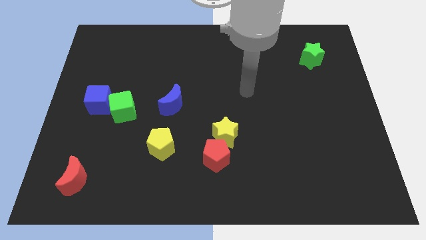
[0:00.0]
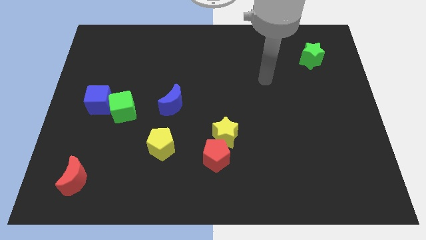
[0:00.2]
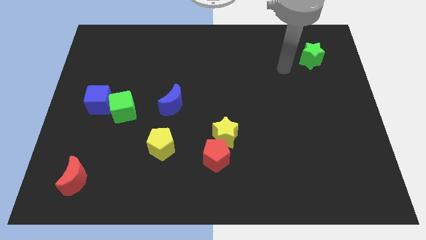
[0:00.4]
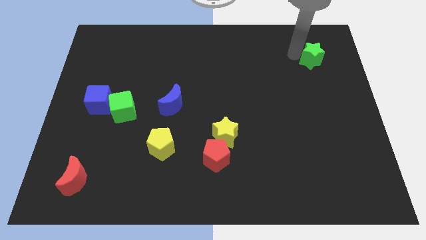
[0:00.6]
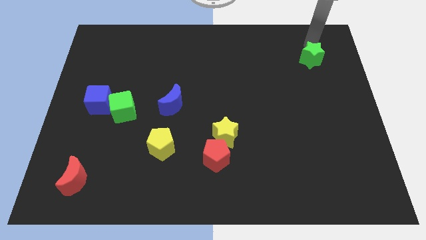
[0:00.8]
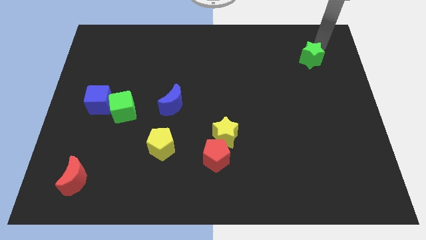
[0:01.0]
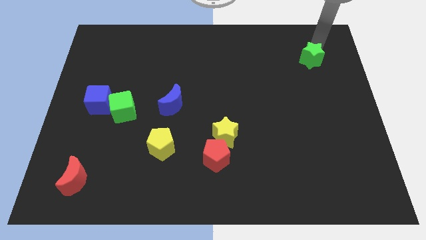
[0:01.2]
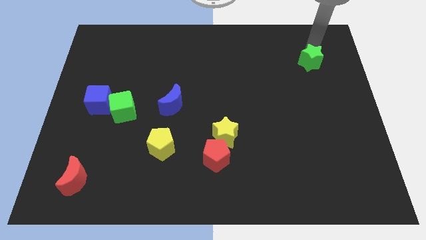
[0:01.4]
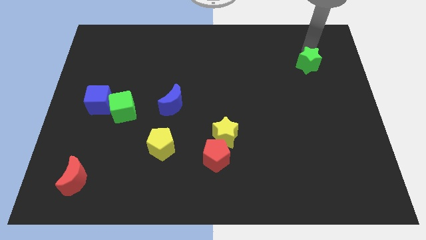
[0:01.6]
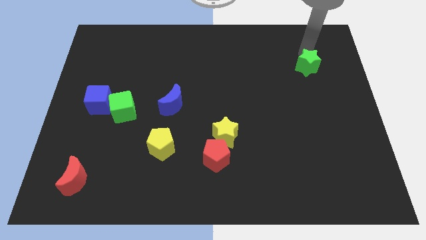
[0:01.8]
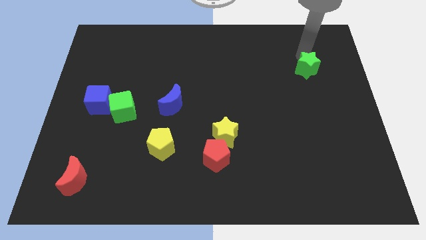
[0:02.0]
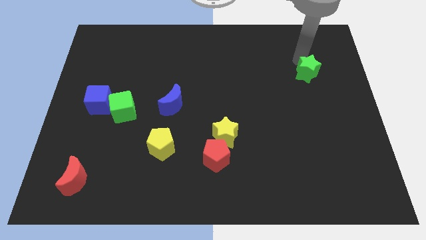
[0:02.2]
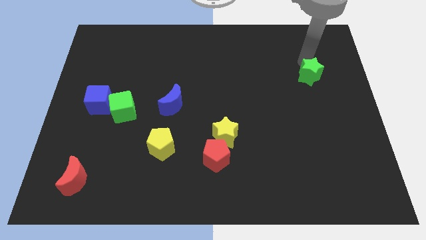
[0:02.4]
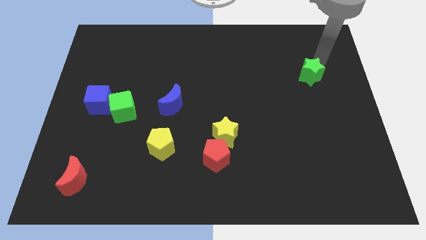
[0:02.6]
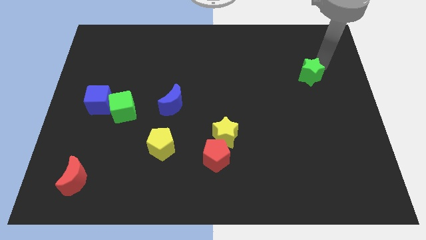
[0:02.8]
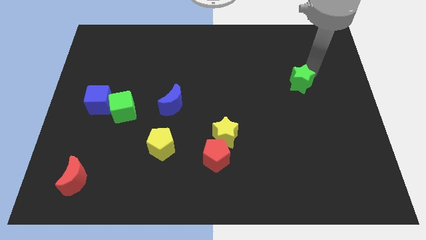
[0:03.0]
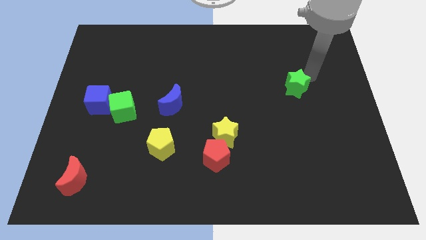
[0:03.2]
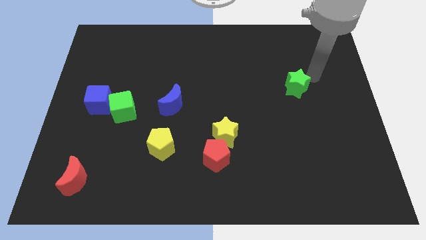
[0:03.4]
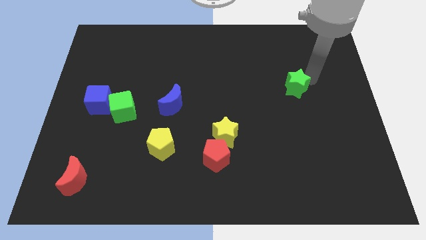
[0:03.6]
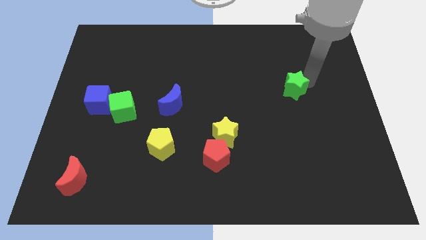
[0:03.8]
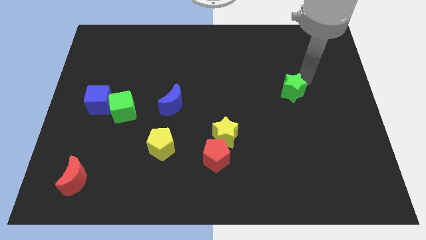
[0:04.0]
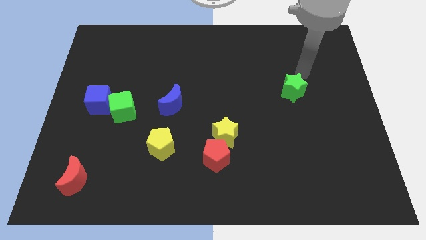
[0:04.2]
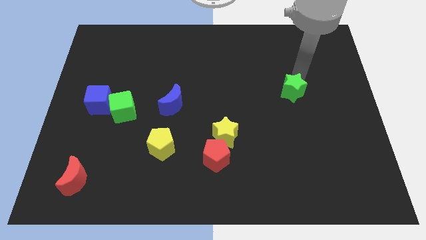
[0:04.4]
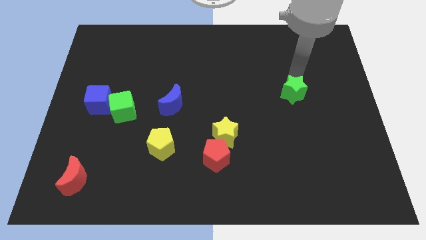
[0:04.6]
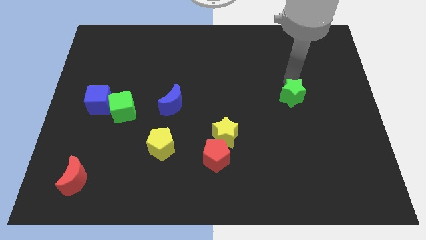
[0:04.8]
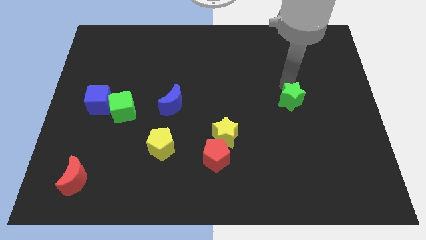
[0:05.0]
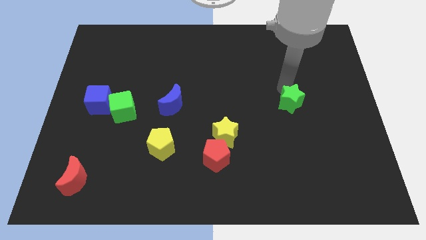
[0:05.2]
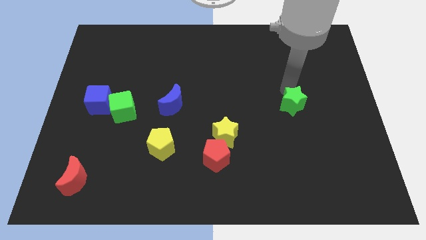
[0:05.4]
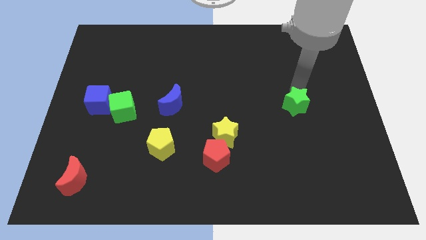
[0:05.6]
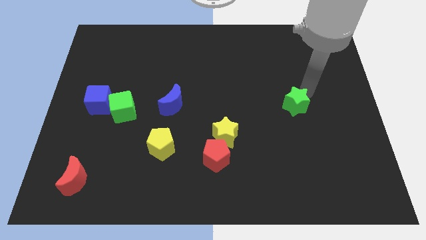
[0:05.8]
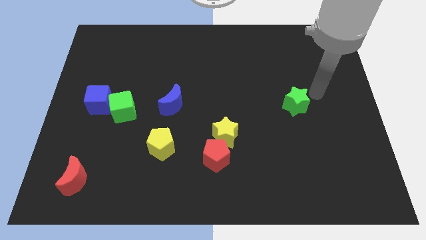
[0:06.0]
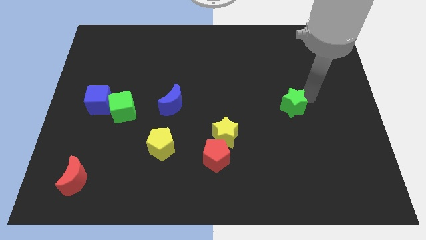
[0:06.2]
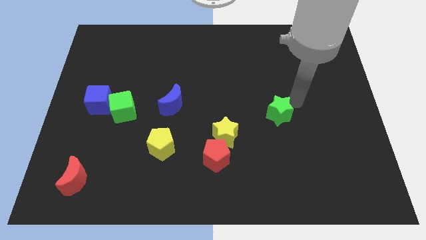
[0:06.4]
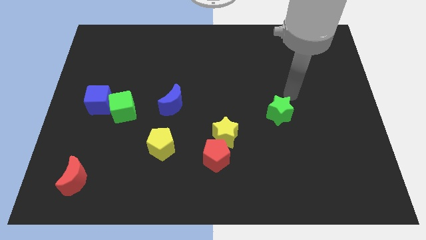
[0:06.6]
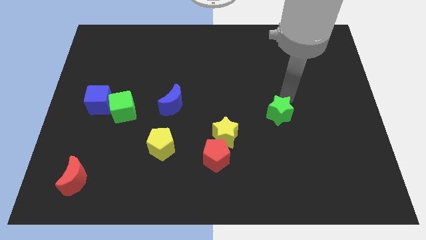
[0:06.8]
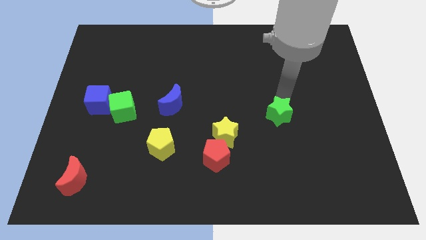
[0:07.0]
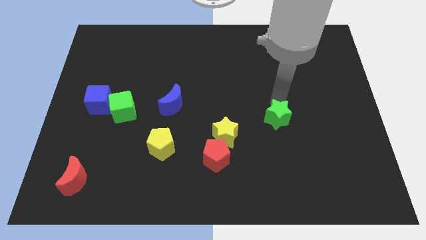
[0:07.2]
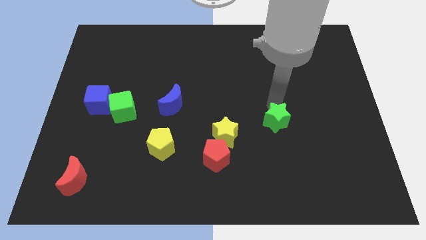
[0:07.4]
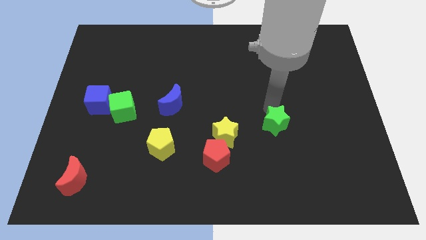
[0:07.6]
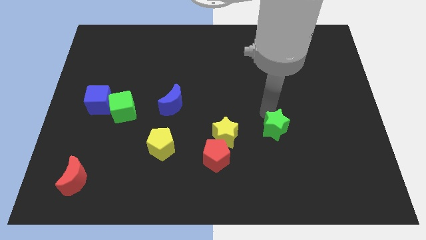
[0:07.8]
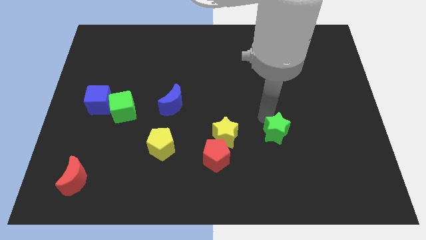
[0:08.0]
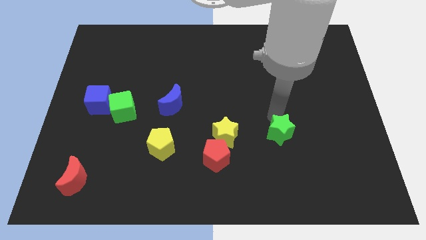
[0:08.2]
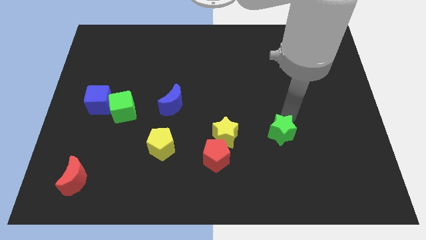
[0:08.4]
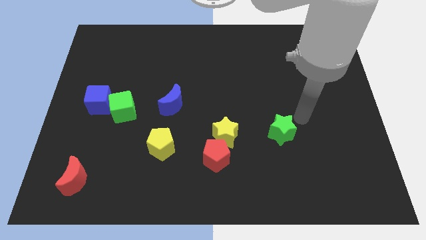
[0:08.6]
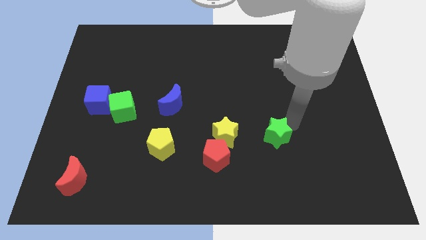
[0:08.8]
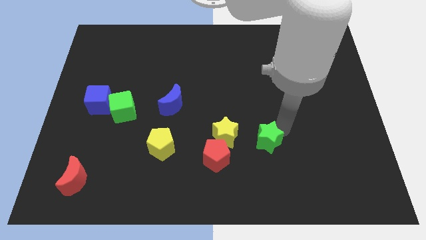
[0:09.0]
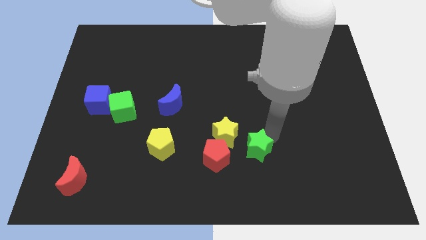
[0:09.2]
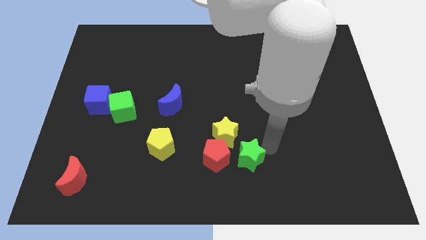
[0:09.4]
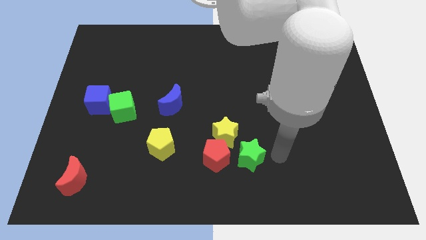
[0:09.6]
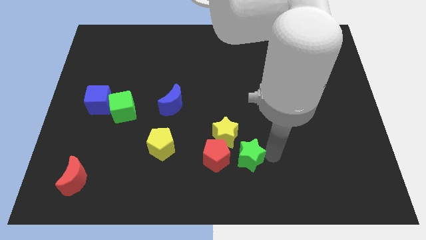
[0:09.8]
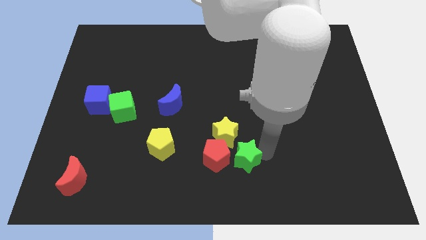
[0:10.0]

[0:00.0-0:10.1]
move the green star to the red pentagon
